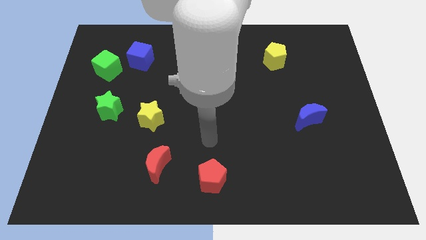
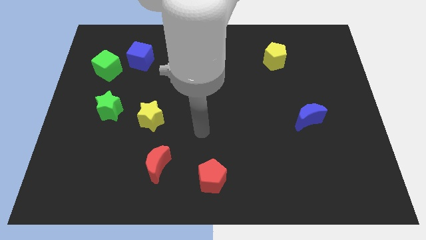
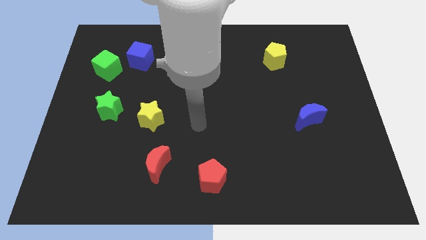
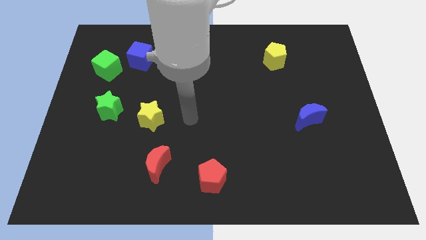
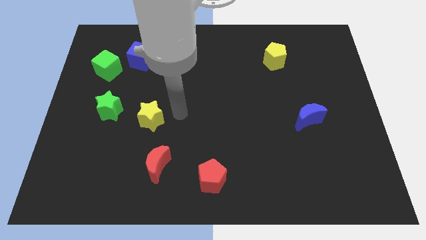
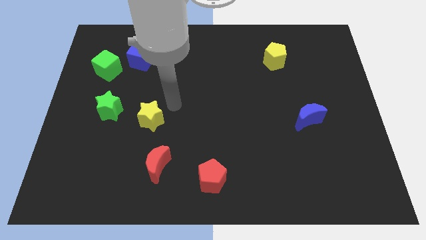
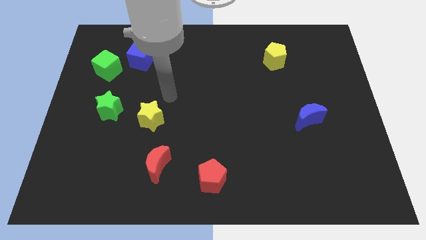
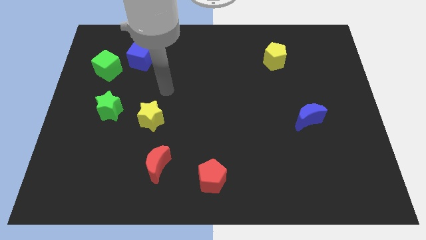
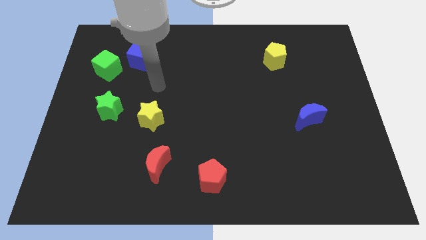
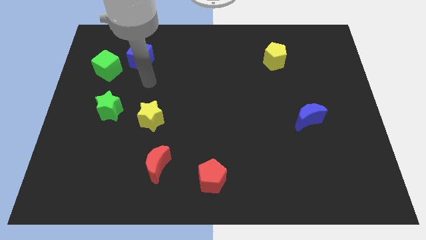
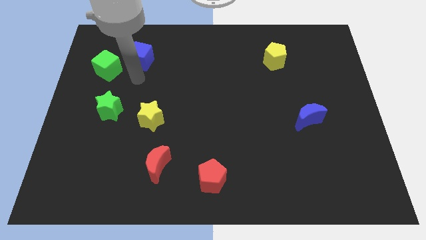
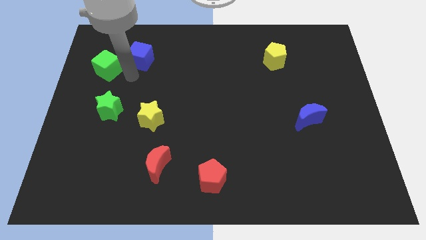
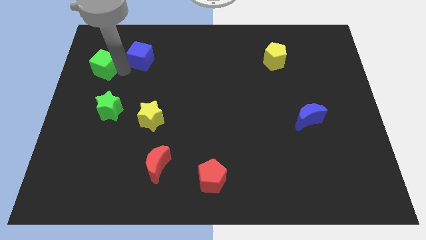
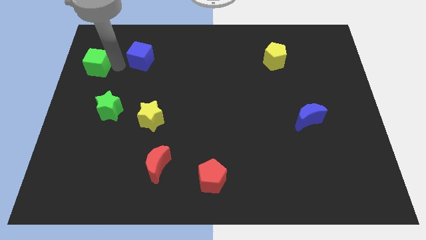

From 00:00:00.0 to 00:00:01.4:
move the blue cube away from the green cube

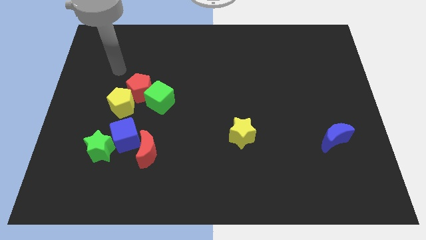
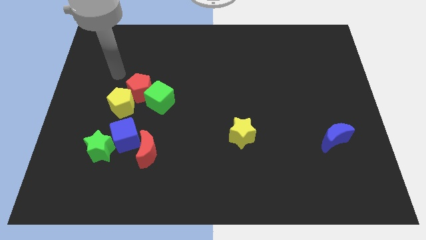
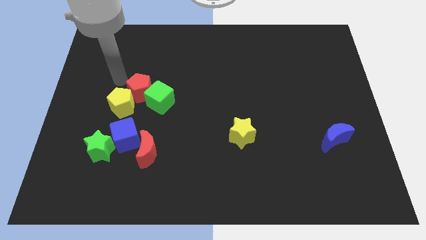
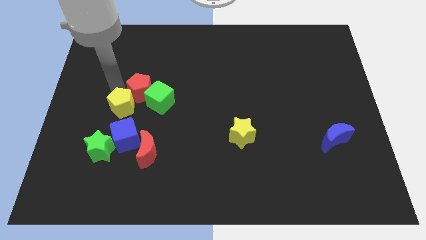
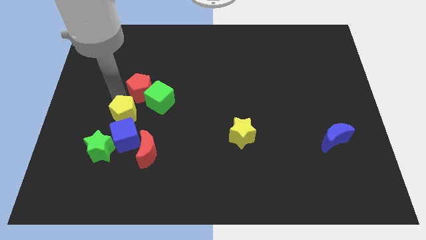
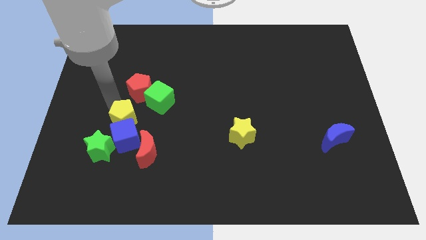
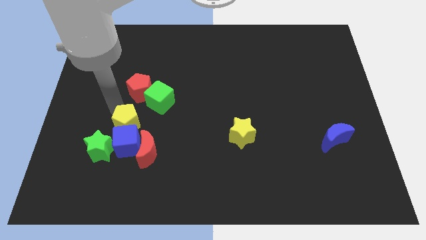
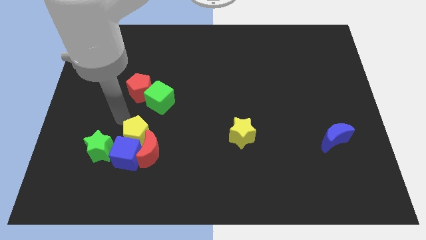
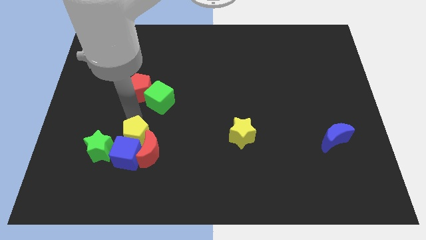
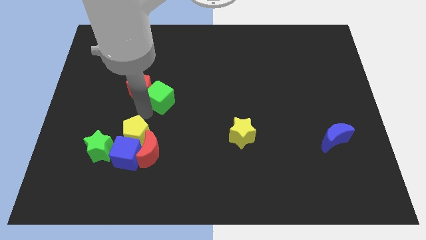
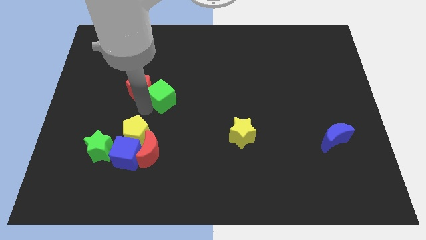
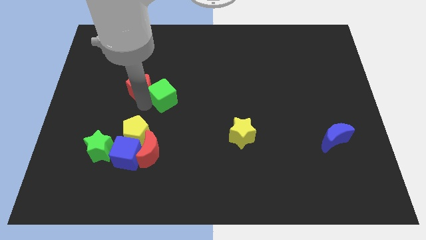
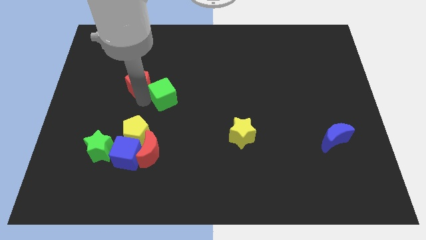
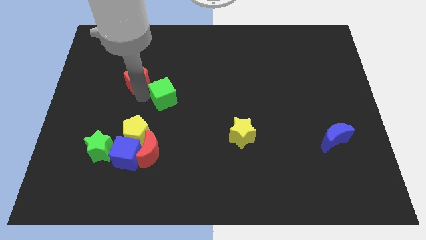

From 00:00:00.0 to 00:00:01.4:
move the red pentagon away from the green cube and yellow pentagon

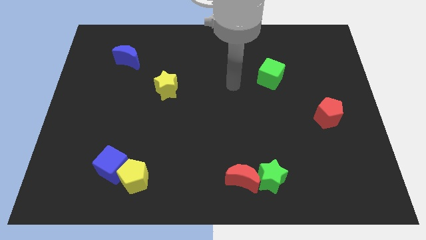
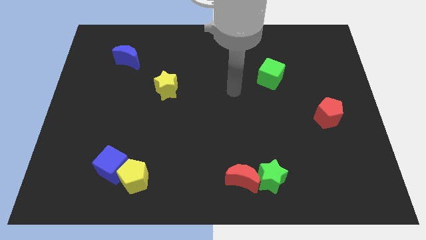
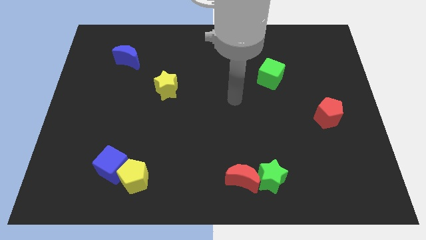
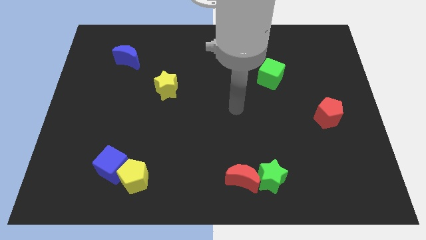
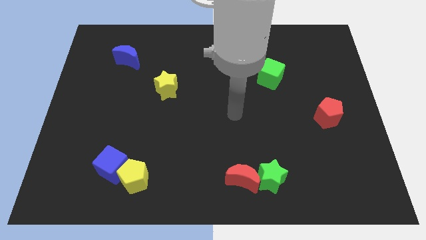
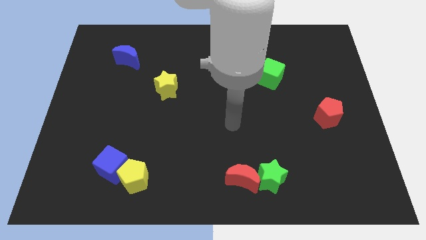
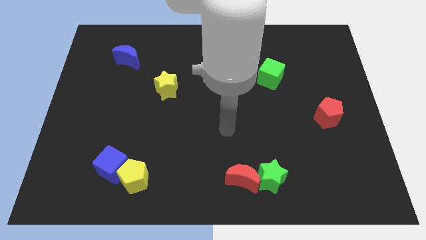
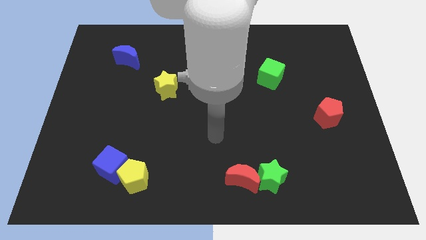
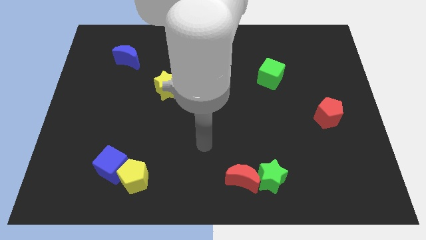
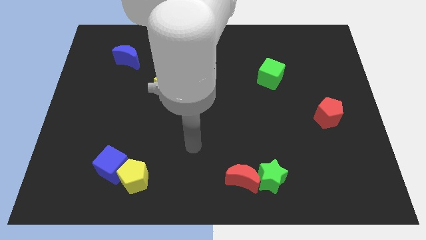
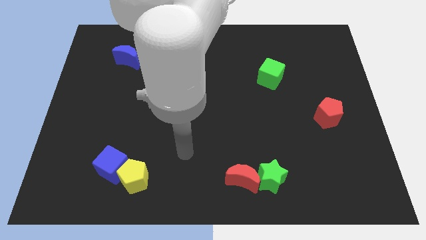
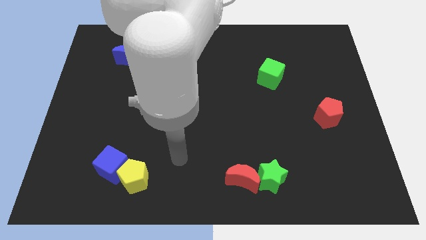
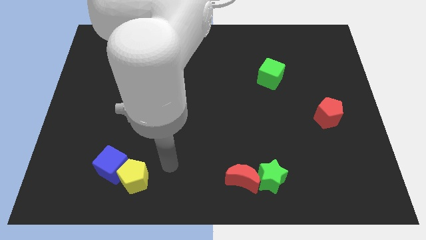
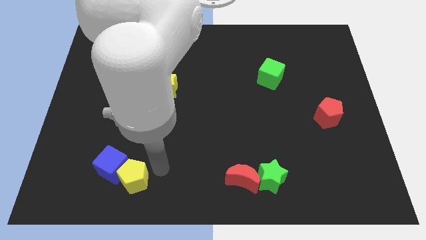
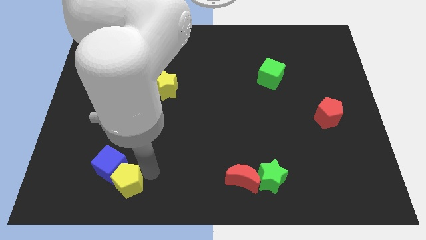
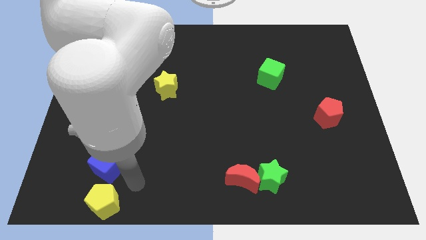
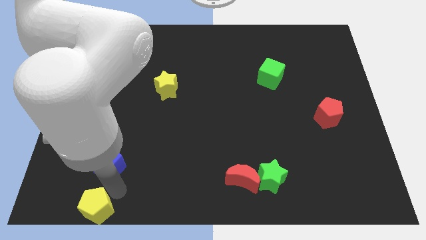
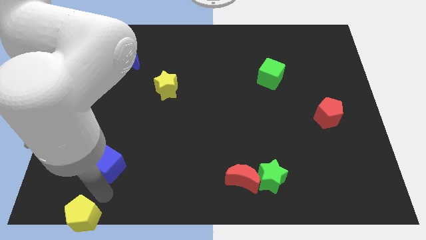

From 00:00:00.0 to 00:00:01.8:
pull the blue cube apart from the yellow pentagon

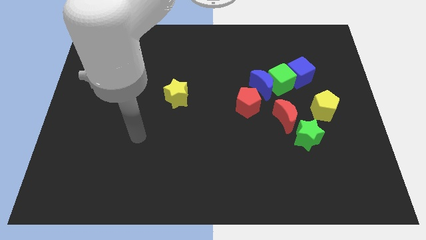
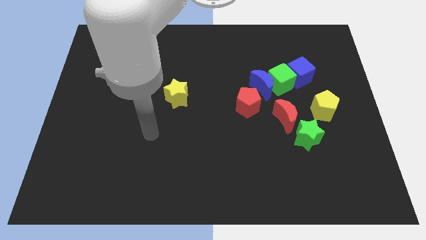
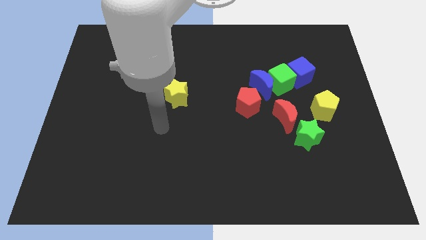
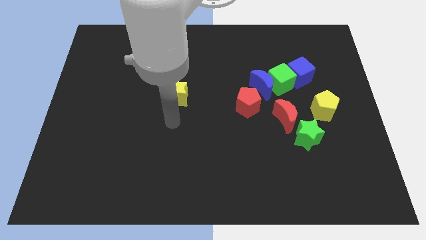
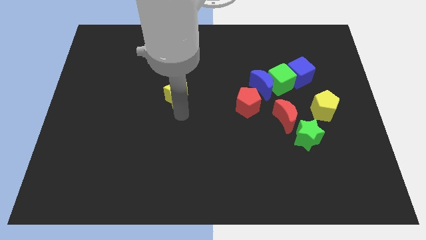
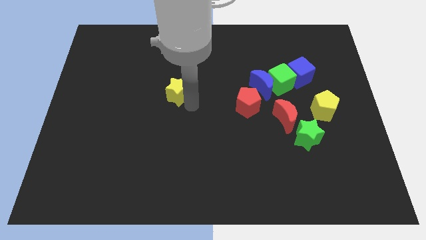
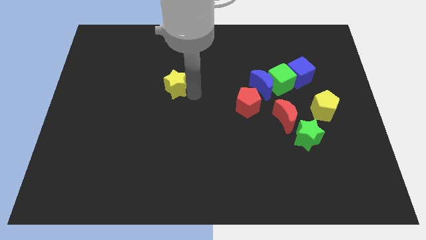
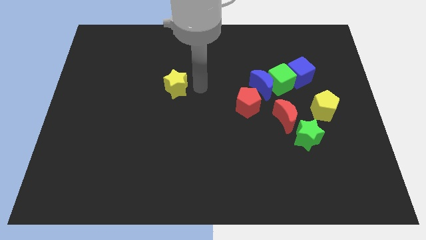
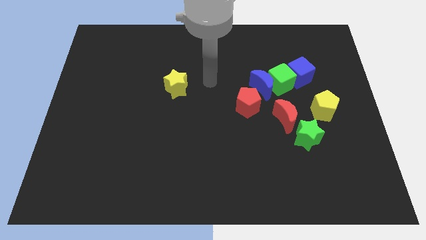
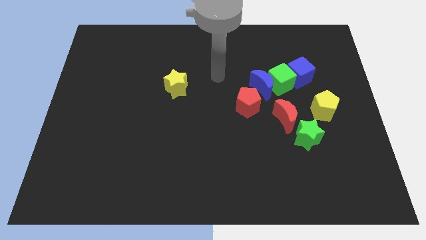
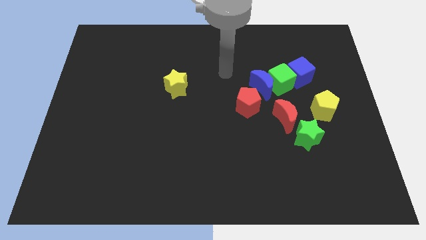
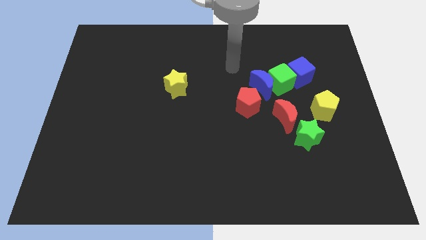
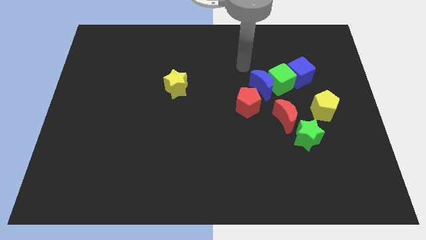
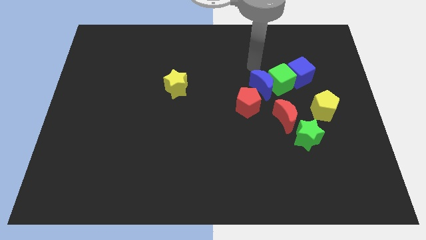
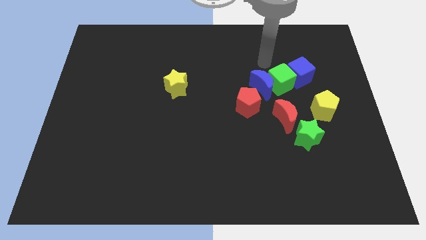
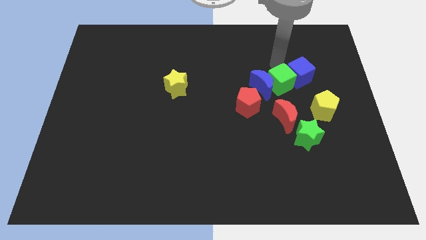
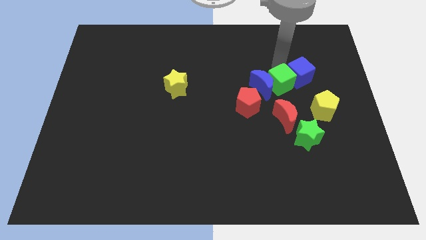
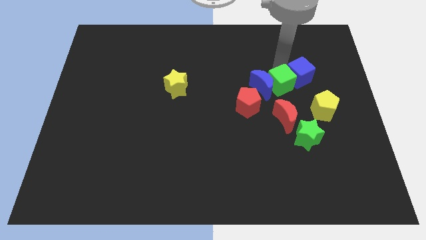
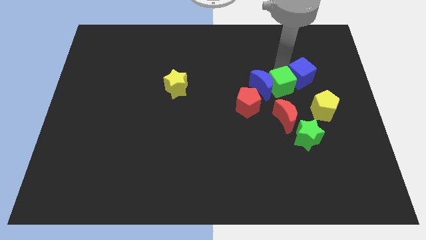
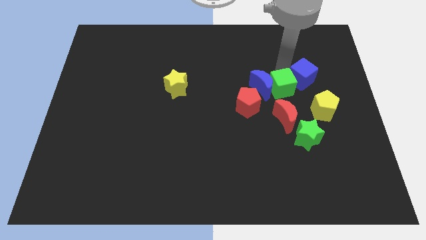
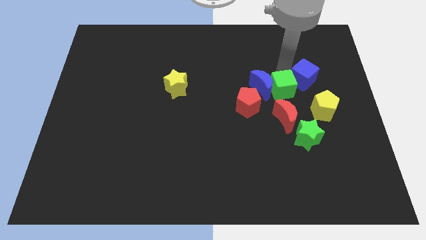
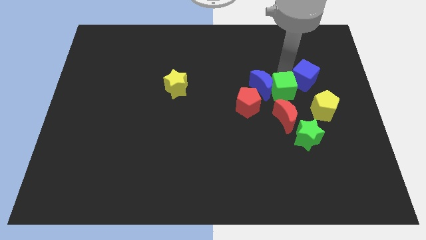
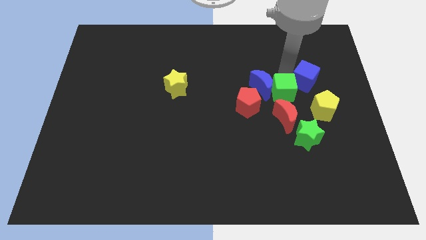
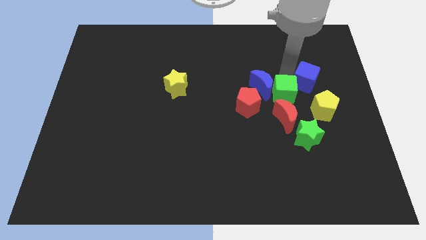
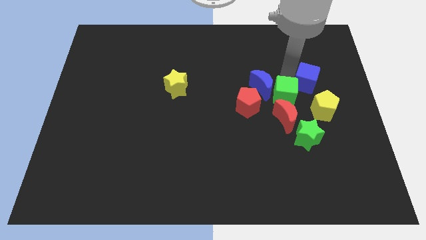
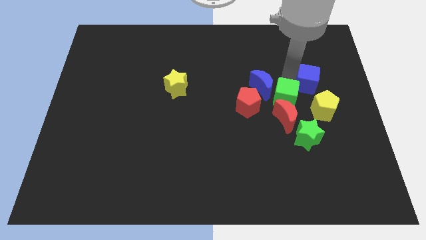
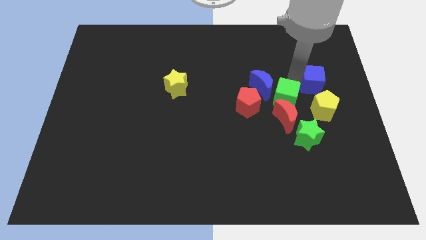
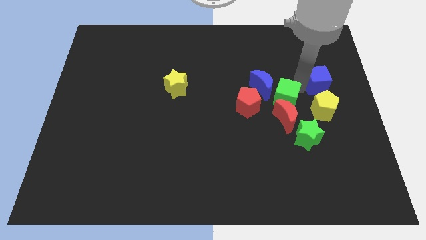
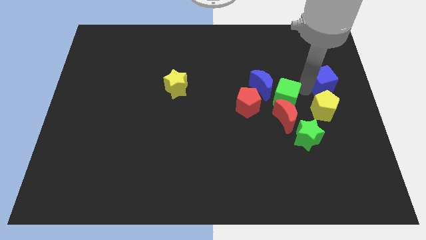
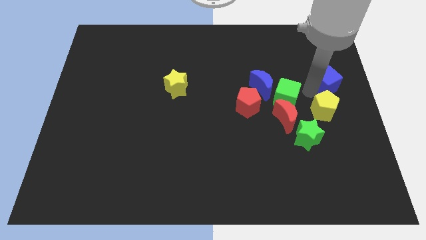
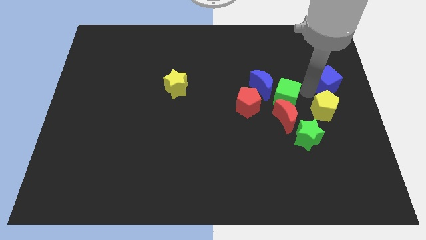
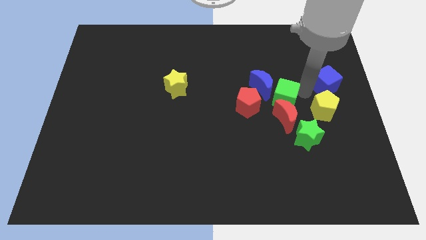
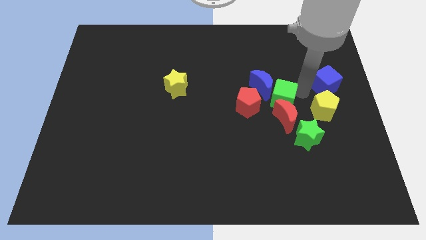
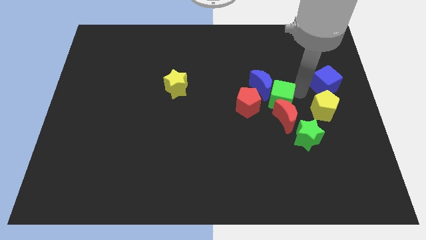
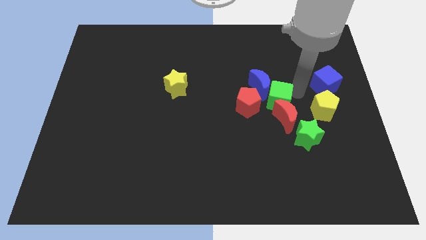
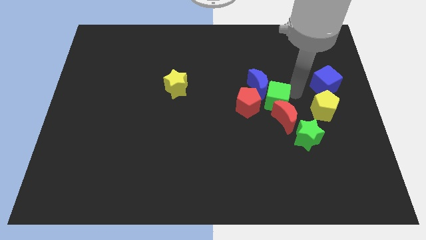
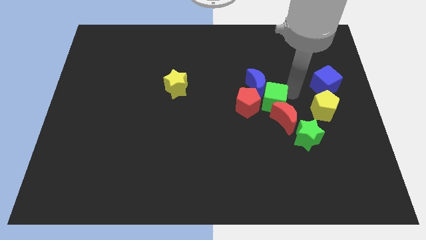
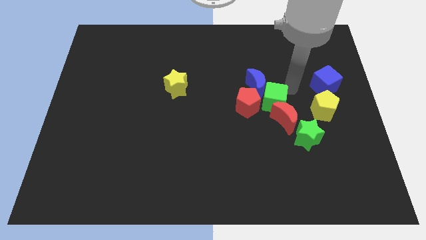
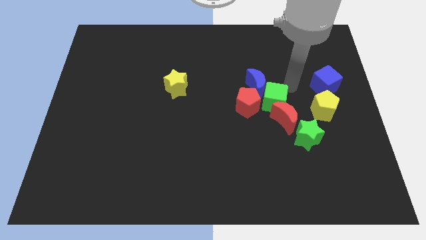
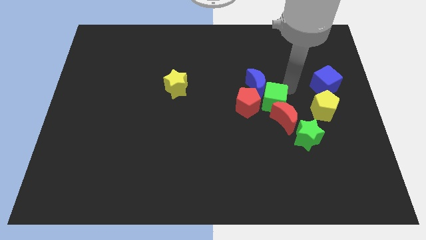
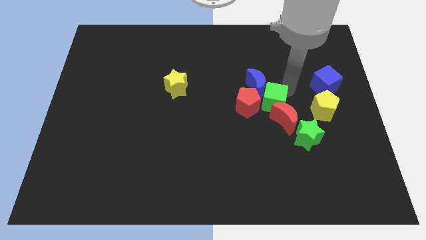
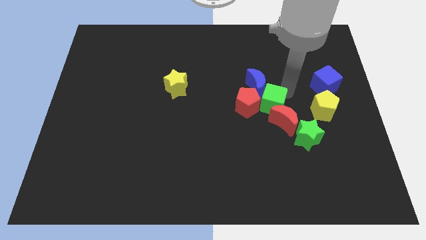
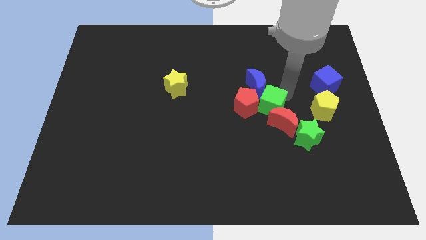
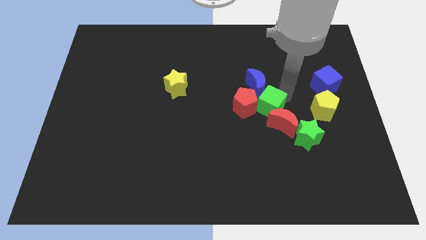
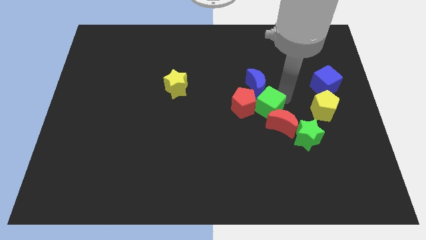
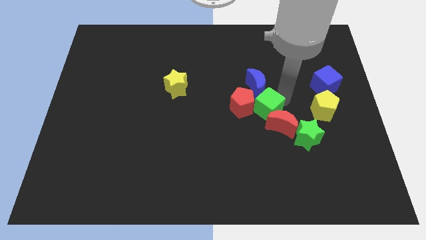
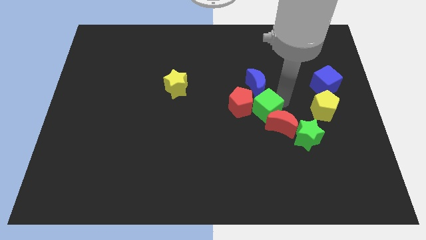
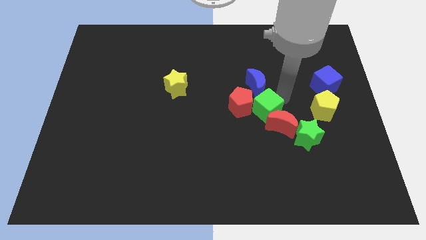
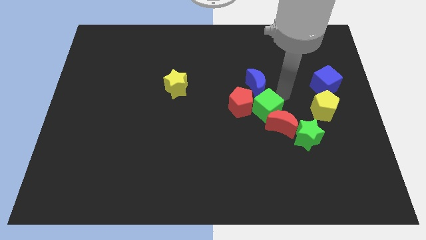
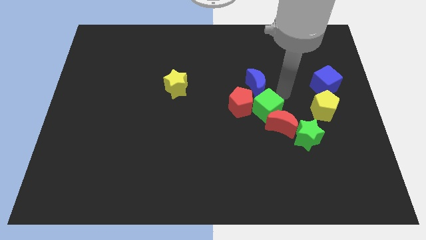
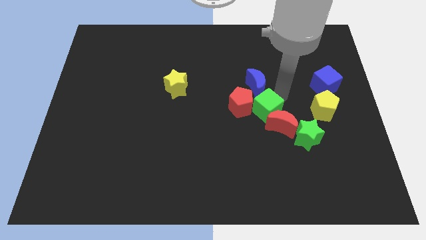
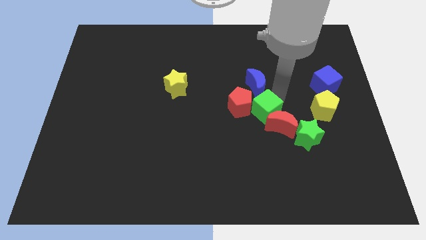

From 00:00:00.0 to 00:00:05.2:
separate the green cube from the blue moon and blue cube
